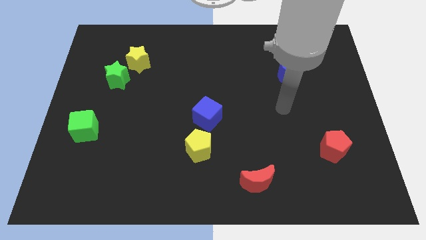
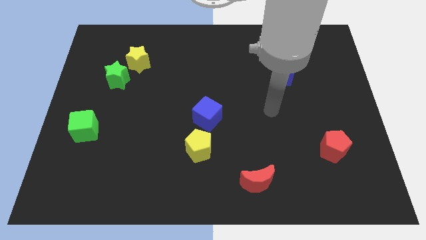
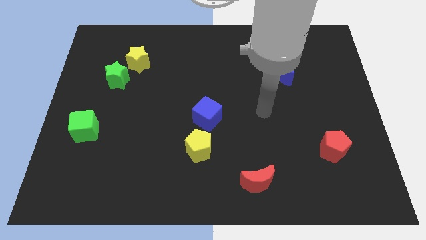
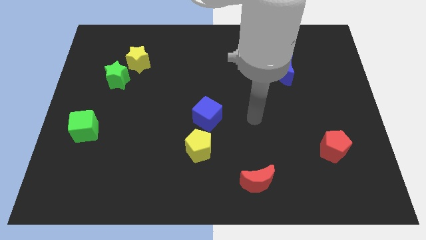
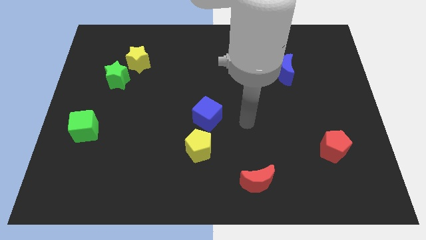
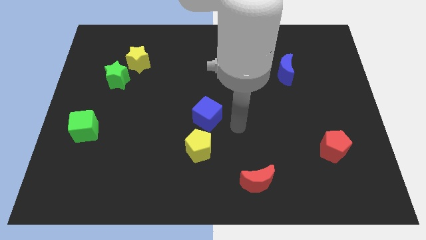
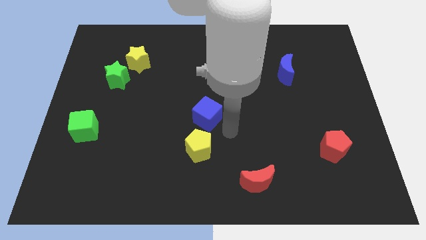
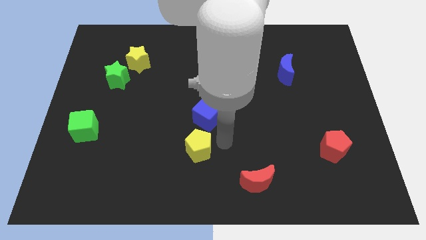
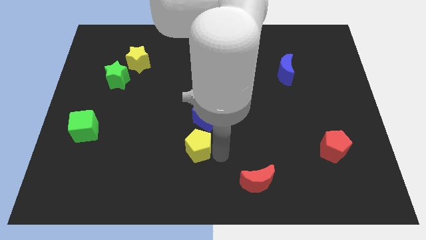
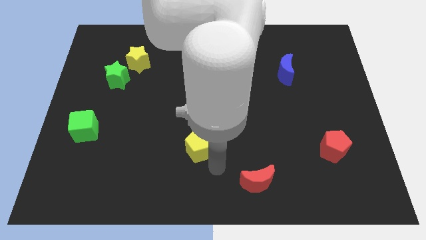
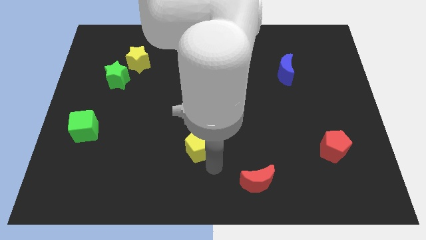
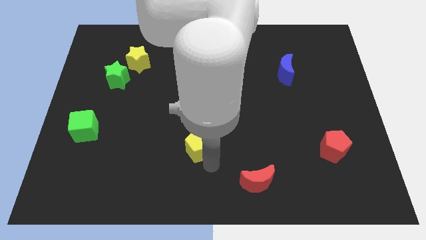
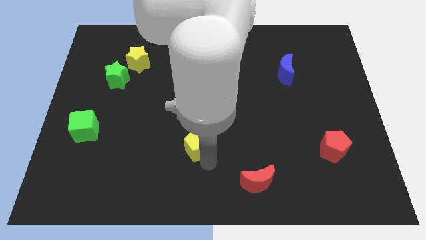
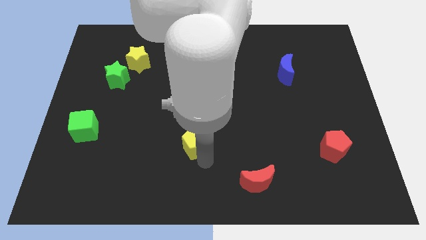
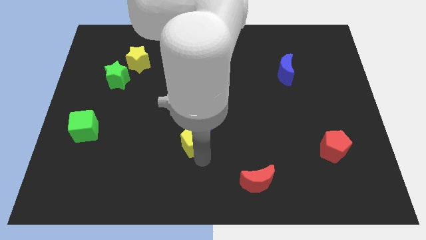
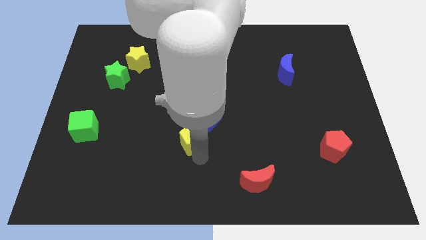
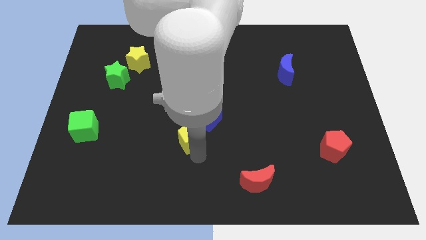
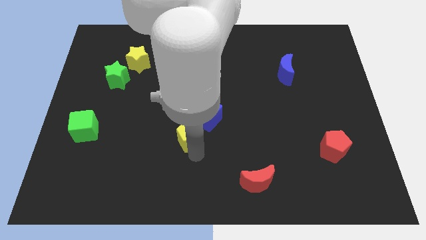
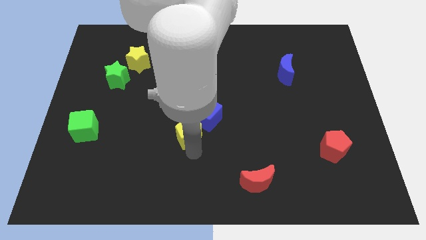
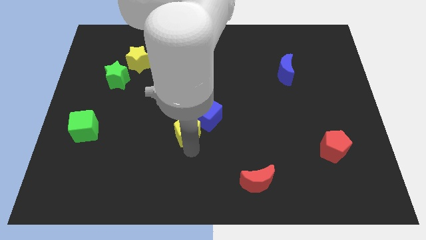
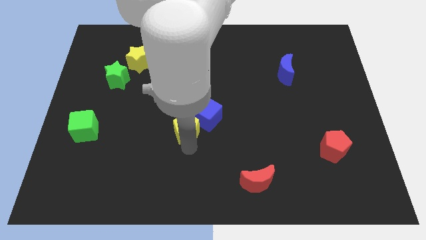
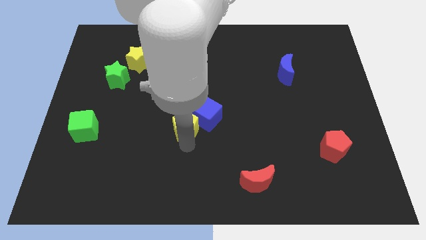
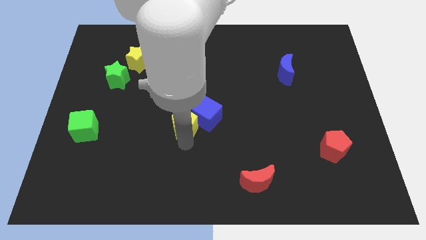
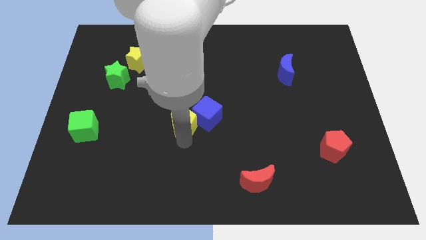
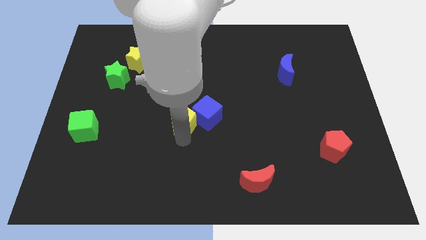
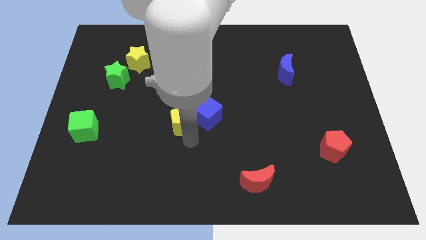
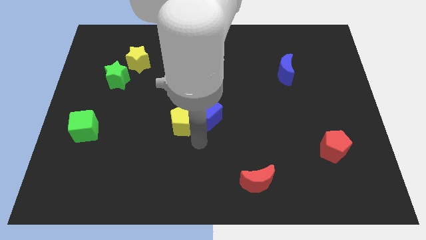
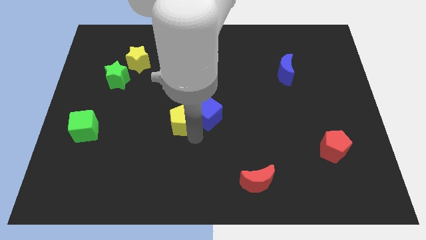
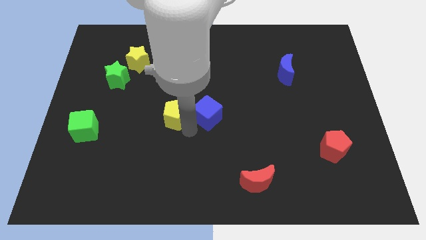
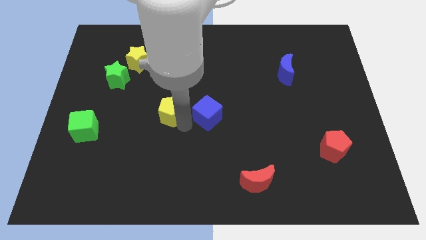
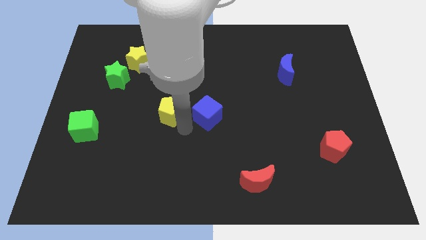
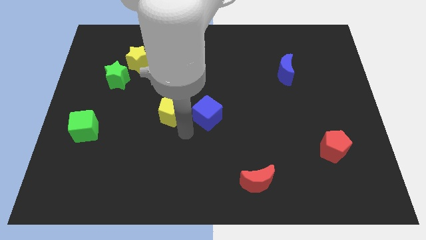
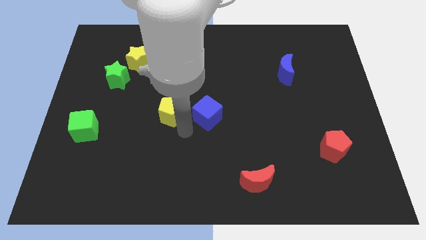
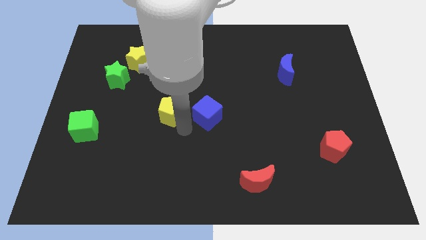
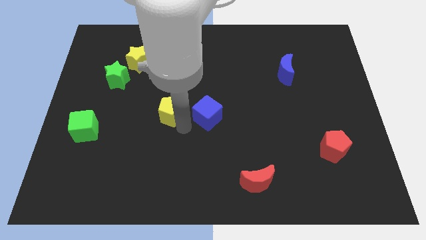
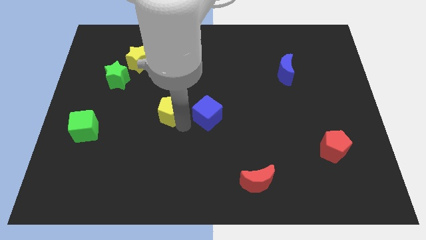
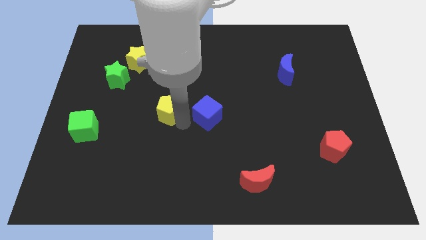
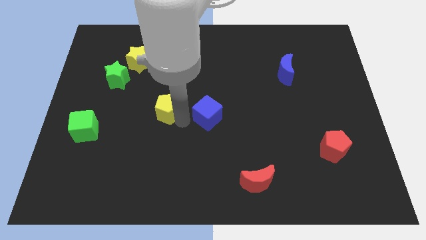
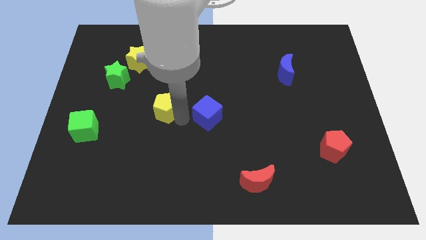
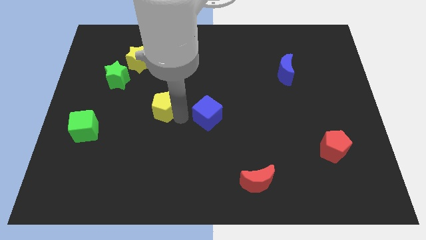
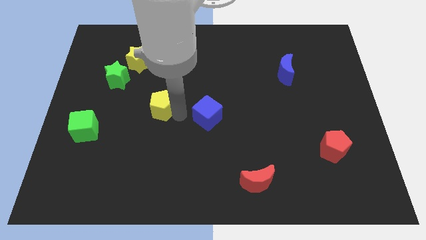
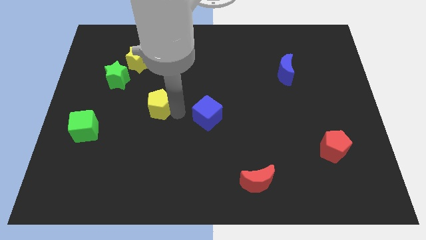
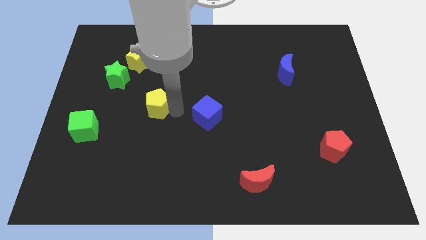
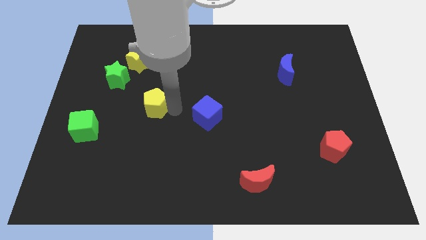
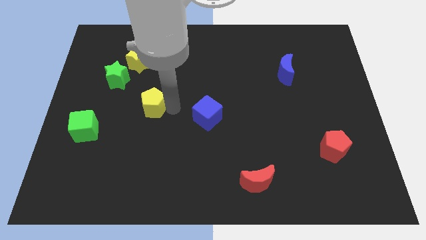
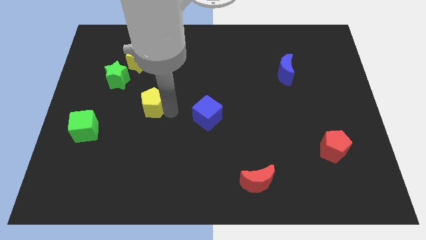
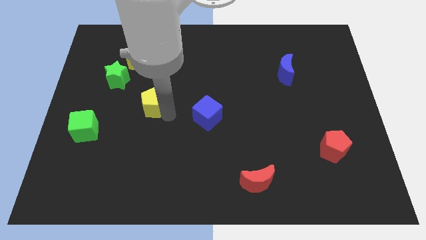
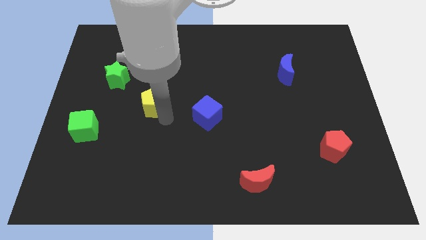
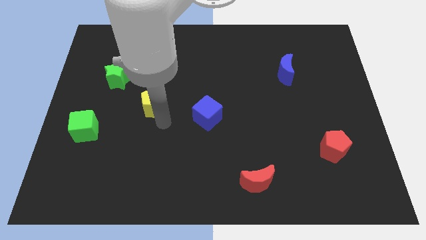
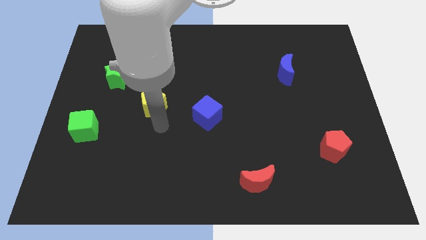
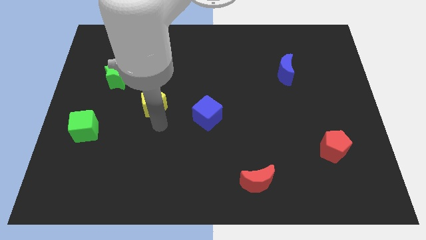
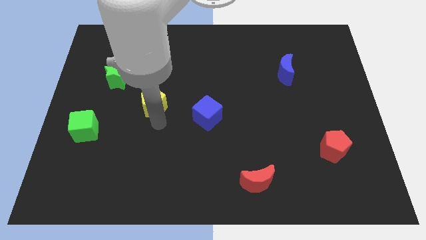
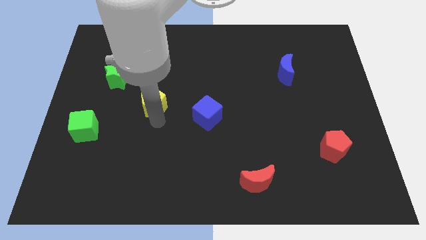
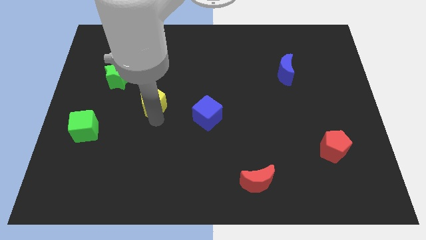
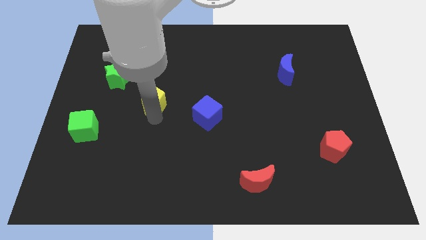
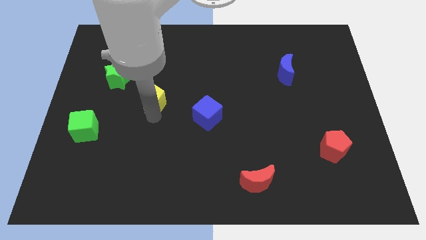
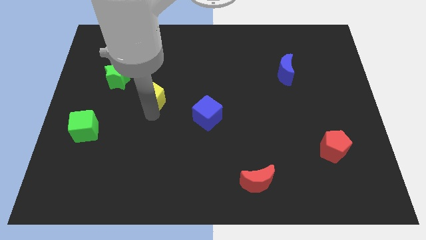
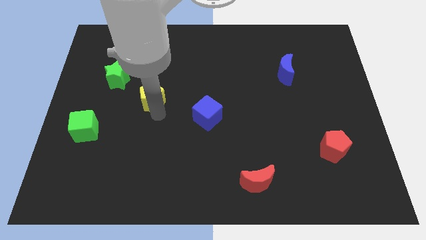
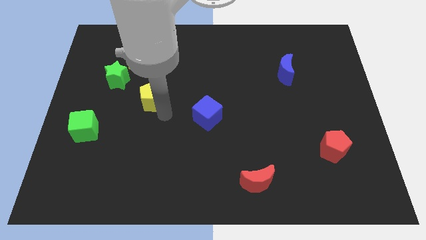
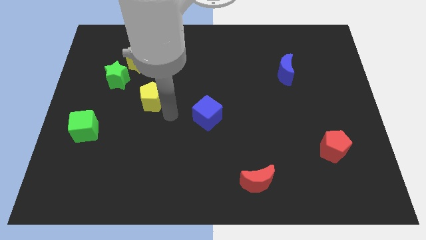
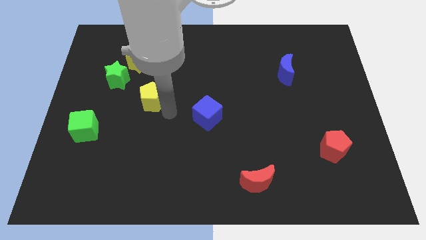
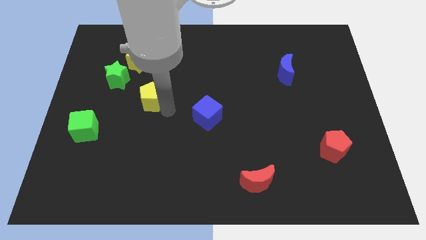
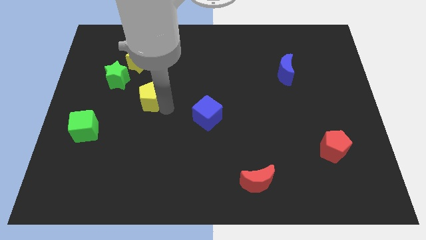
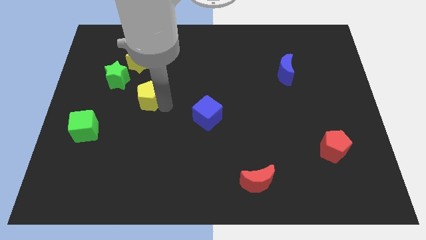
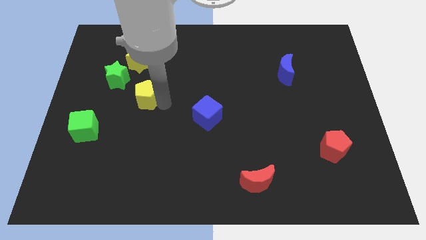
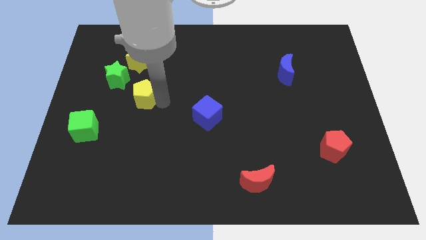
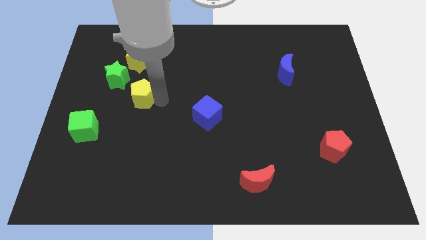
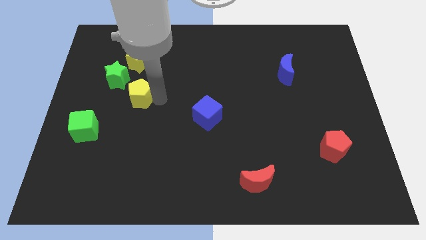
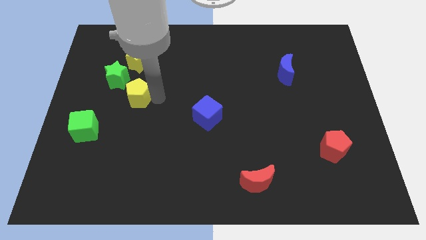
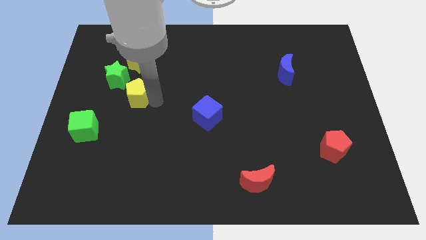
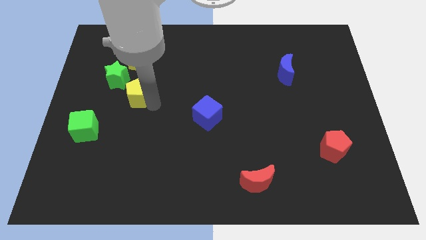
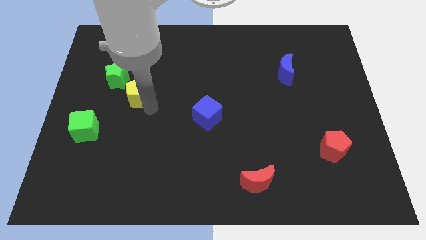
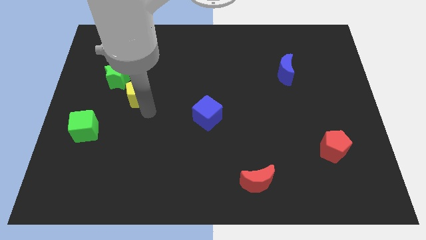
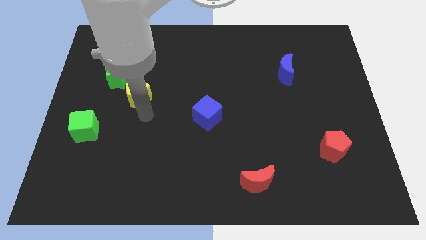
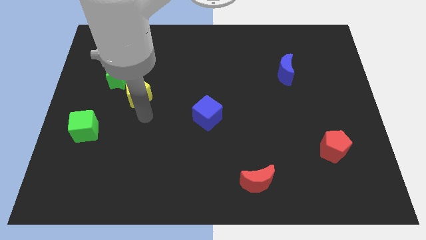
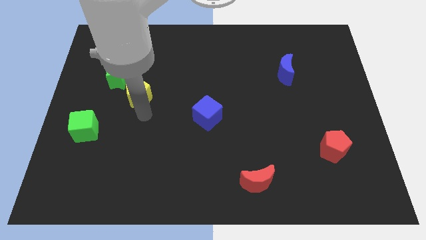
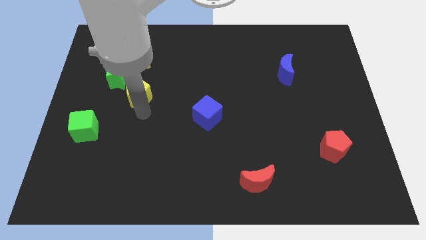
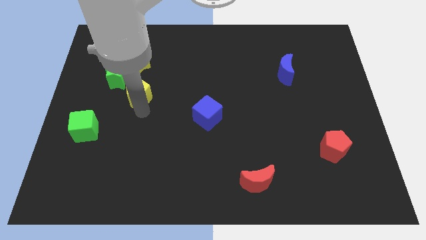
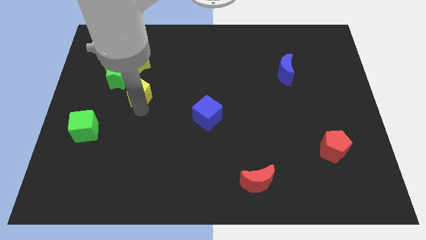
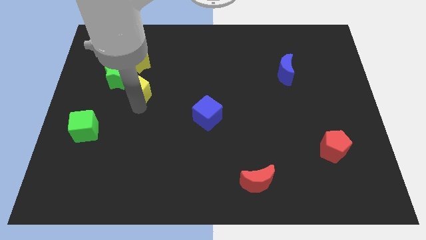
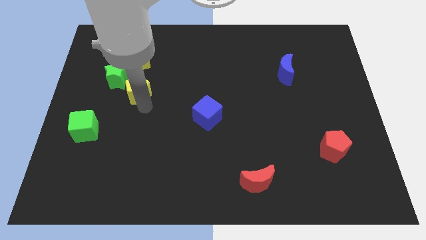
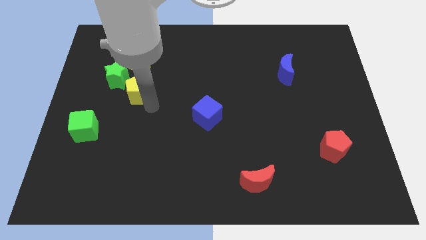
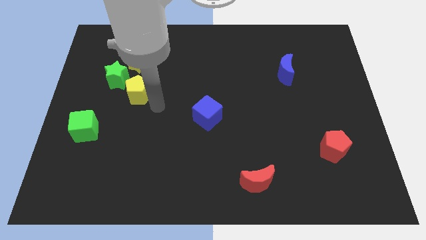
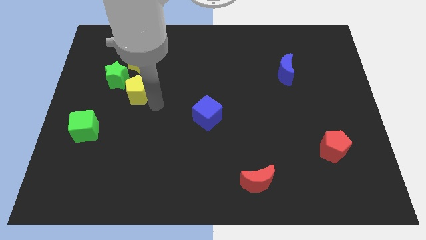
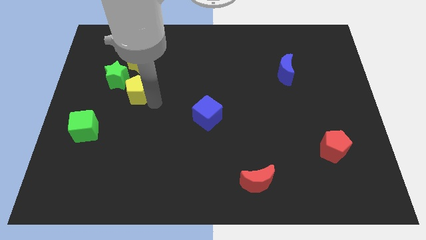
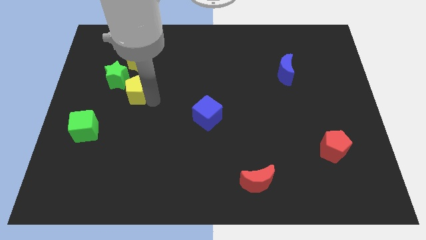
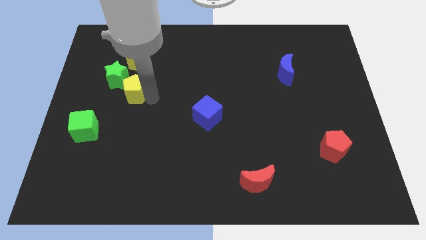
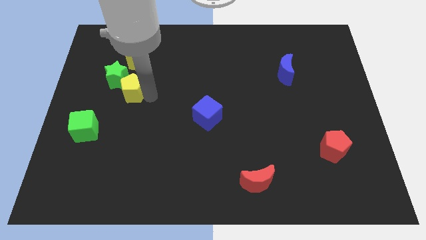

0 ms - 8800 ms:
push the yellow pentagon to the green star
